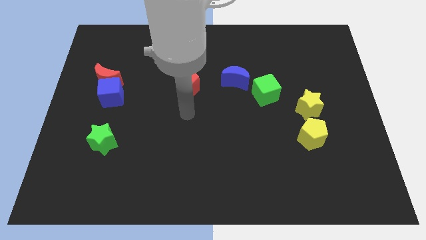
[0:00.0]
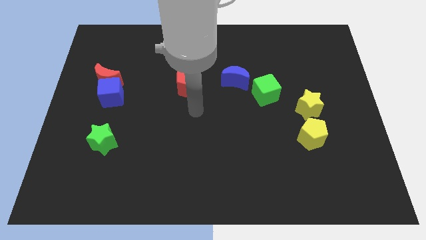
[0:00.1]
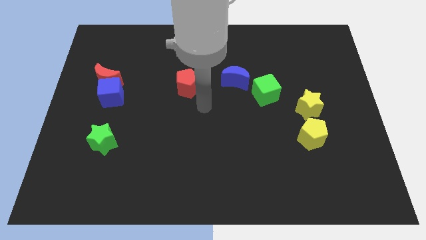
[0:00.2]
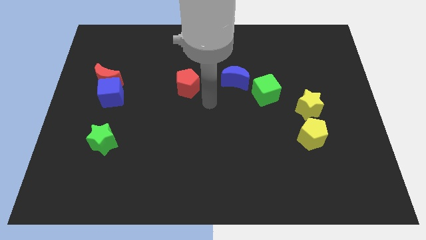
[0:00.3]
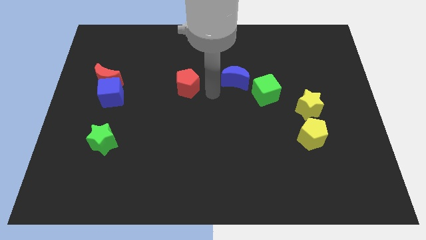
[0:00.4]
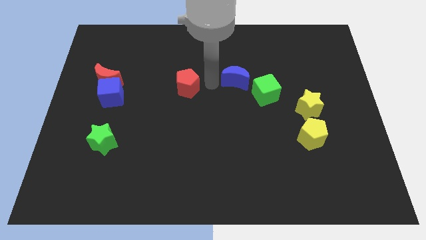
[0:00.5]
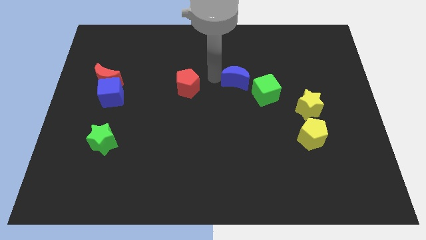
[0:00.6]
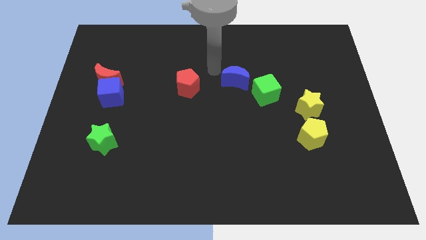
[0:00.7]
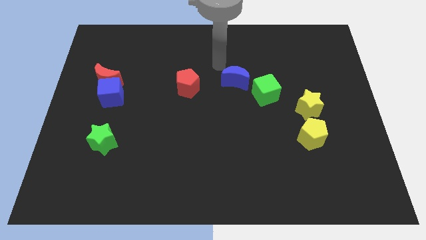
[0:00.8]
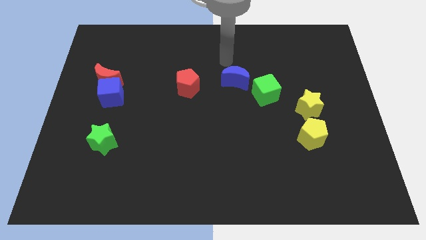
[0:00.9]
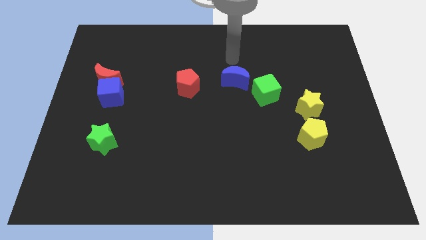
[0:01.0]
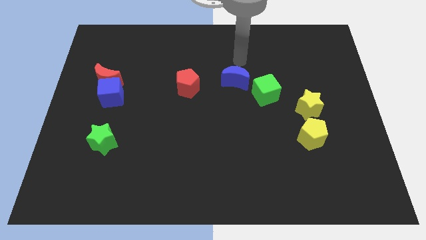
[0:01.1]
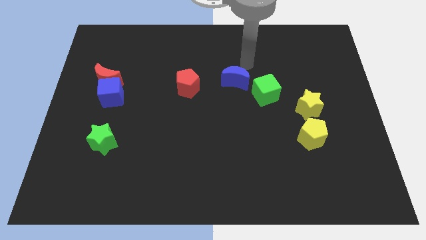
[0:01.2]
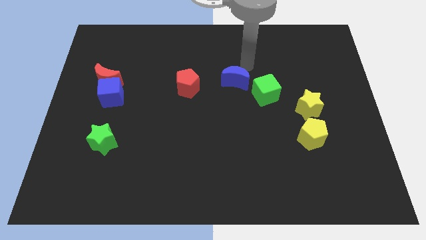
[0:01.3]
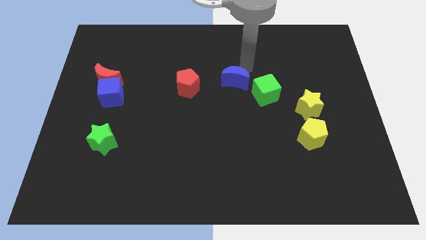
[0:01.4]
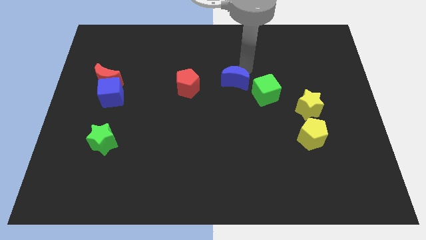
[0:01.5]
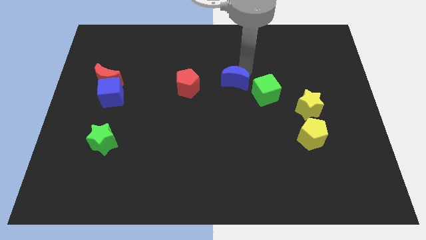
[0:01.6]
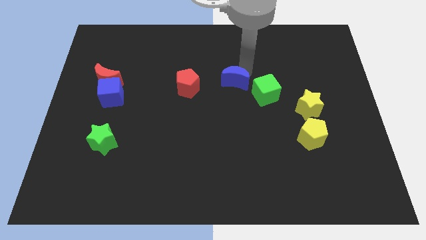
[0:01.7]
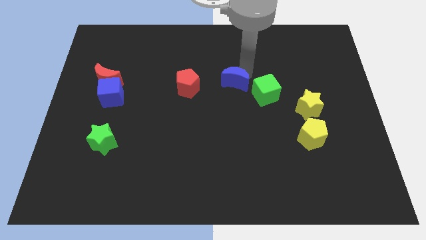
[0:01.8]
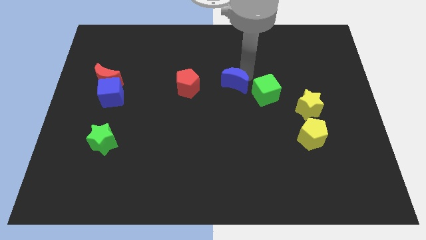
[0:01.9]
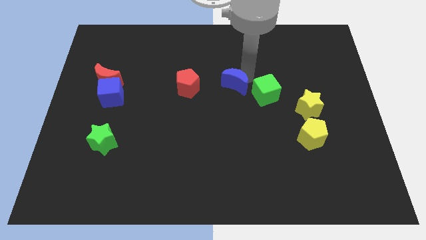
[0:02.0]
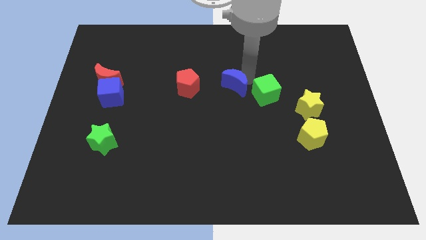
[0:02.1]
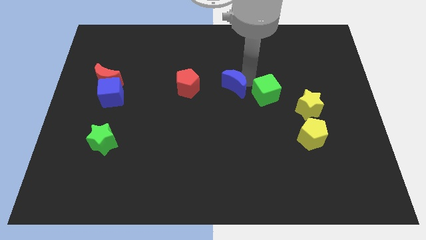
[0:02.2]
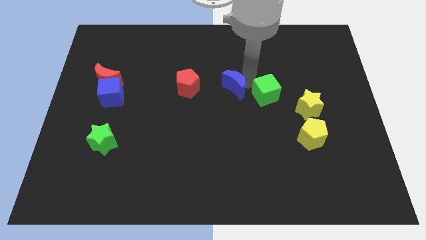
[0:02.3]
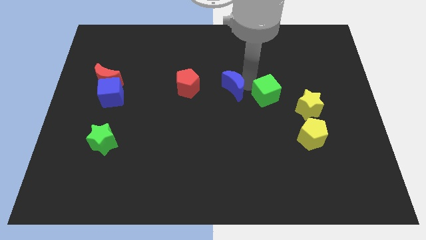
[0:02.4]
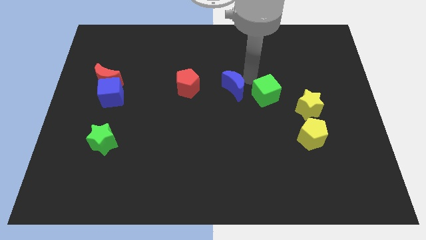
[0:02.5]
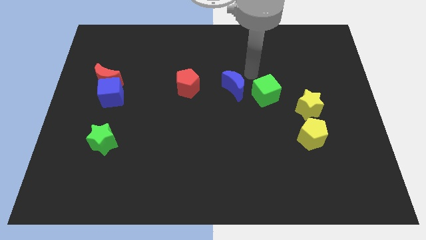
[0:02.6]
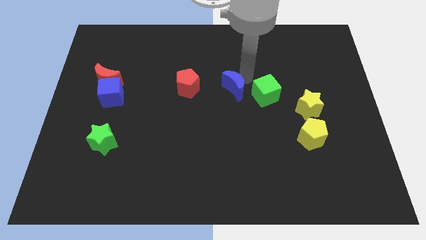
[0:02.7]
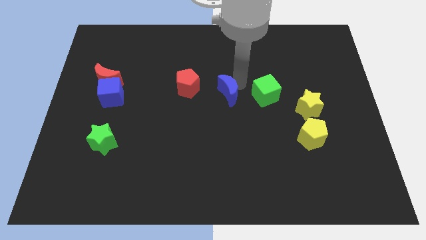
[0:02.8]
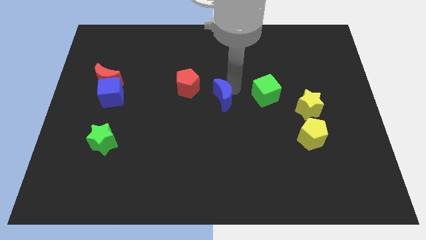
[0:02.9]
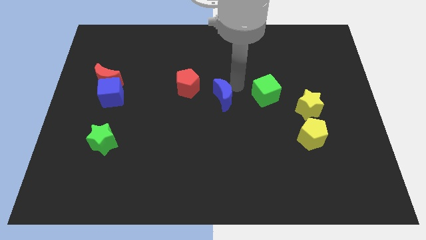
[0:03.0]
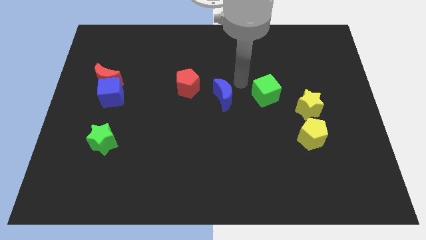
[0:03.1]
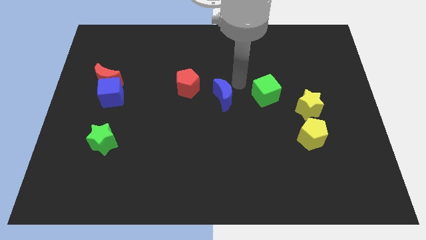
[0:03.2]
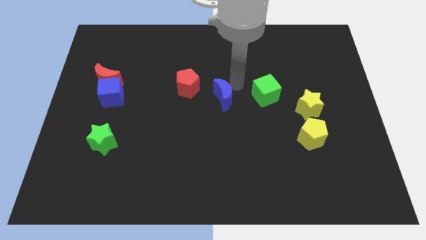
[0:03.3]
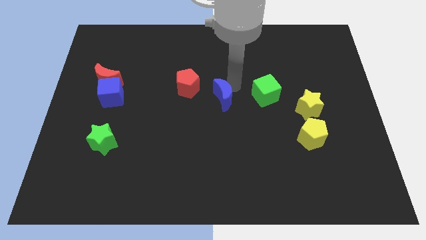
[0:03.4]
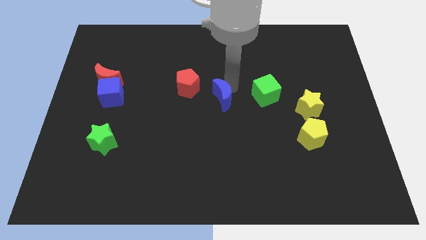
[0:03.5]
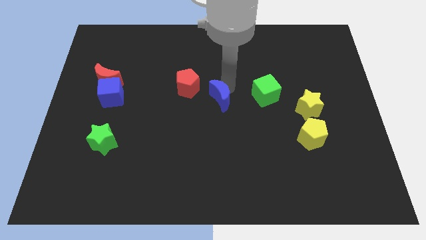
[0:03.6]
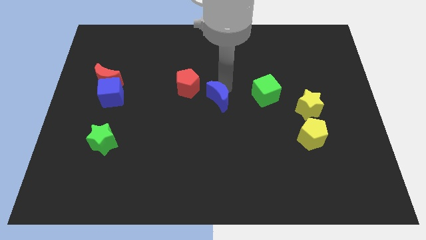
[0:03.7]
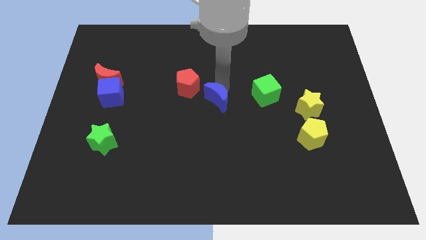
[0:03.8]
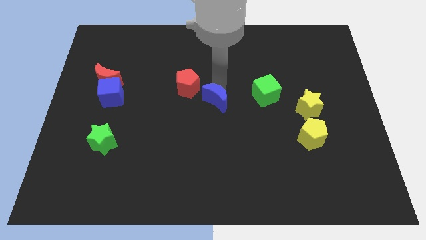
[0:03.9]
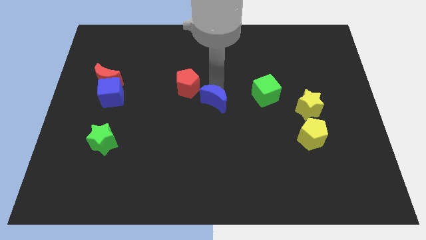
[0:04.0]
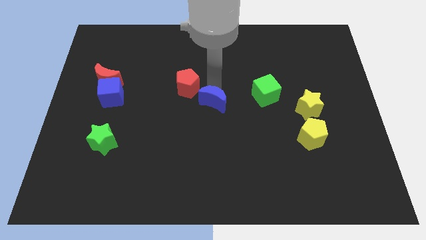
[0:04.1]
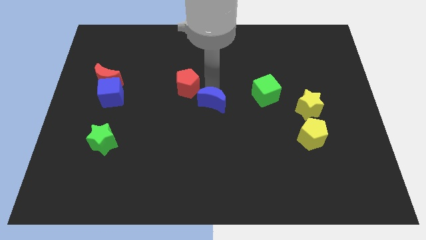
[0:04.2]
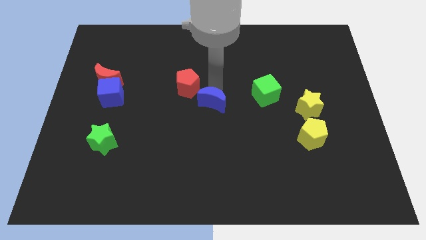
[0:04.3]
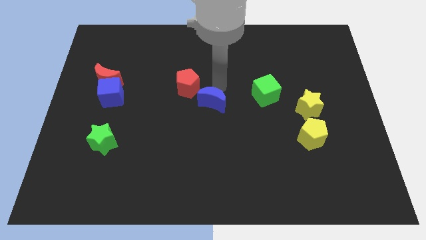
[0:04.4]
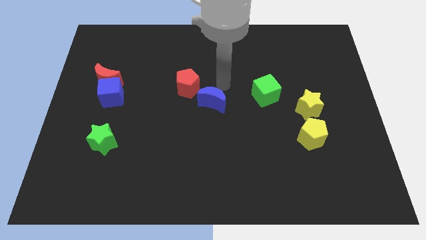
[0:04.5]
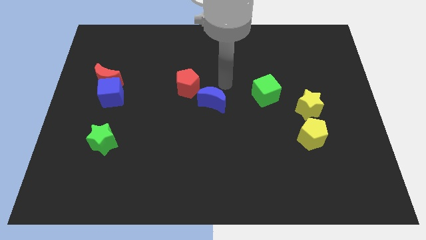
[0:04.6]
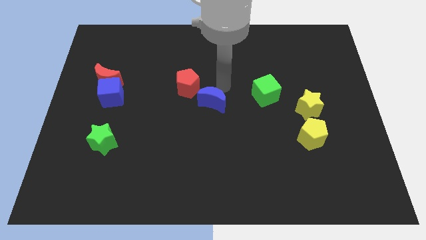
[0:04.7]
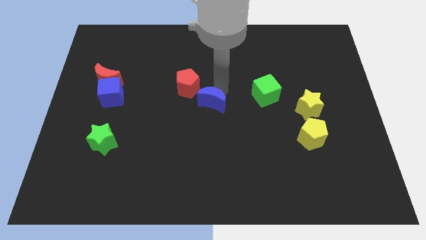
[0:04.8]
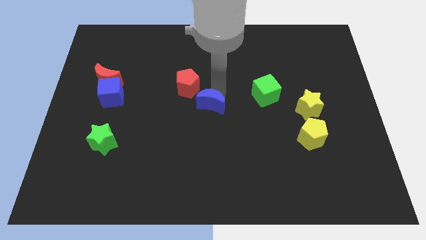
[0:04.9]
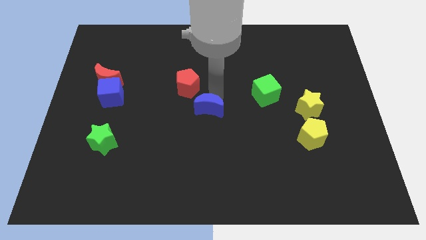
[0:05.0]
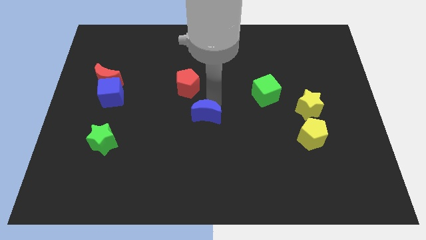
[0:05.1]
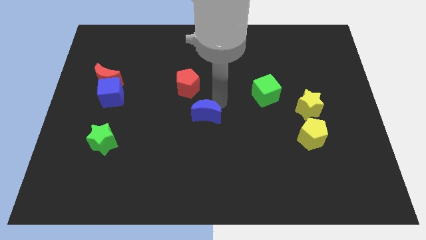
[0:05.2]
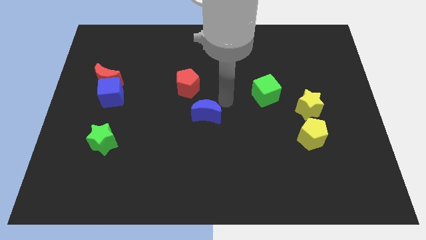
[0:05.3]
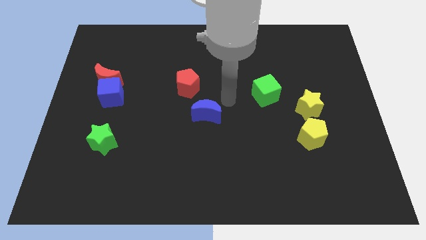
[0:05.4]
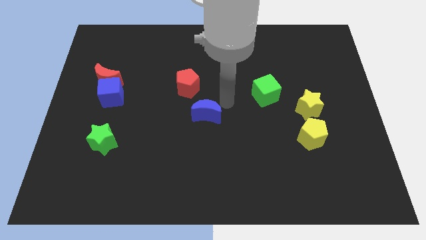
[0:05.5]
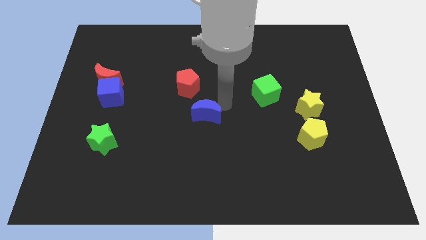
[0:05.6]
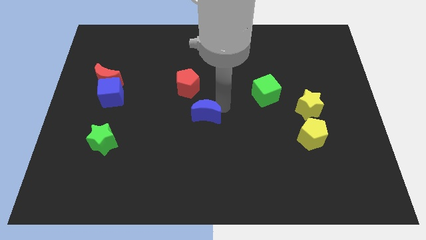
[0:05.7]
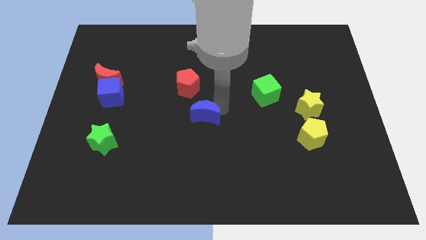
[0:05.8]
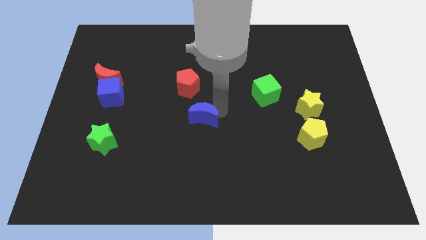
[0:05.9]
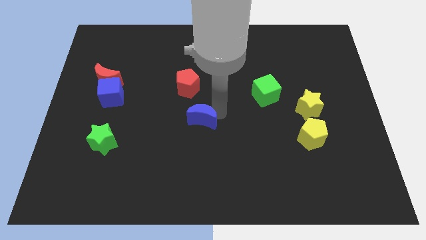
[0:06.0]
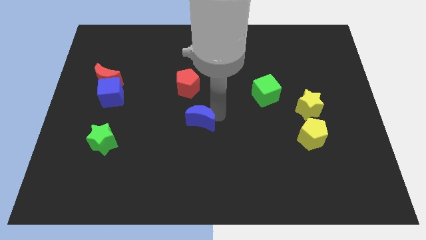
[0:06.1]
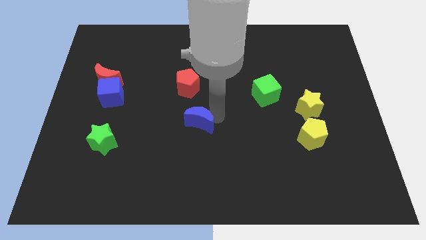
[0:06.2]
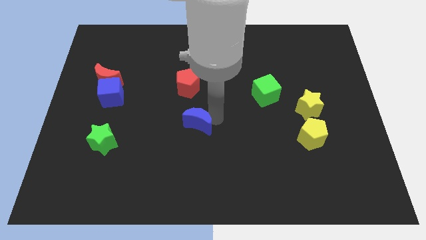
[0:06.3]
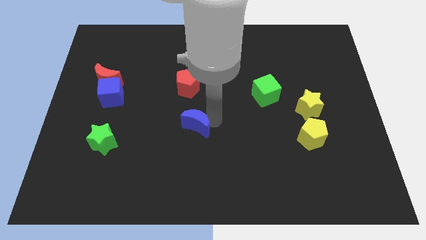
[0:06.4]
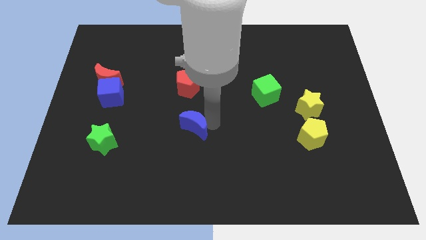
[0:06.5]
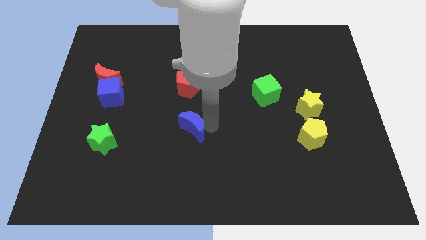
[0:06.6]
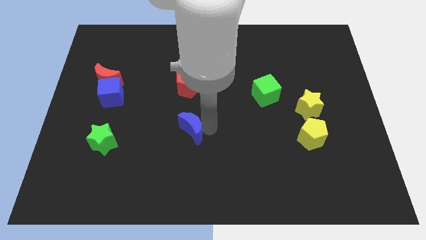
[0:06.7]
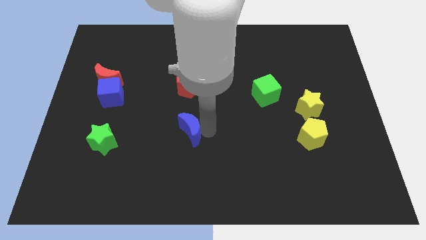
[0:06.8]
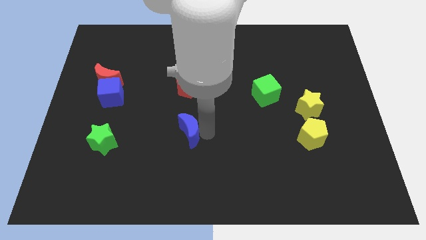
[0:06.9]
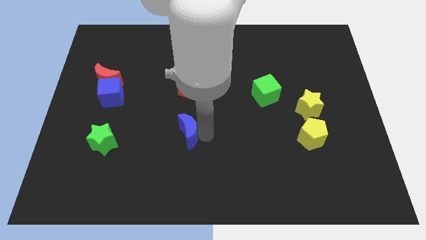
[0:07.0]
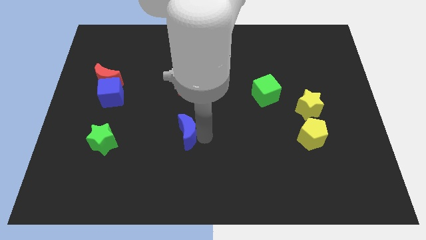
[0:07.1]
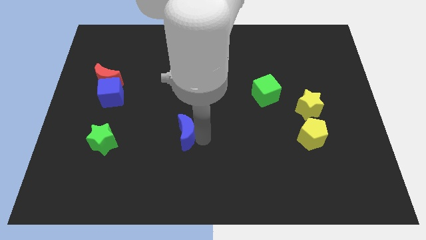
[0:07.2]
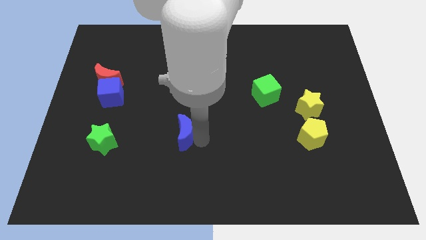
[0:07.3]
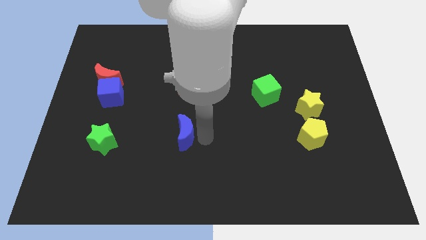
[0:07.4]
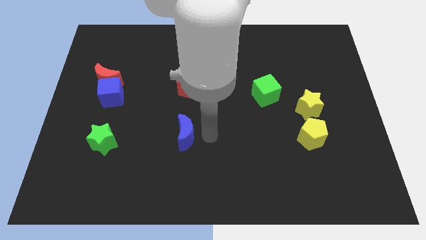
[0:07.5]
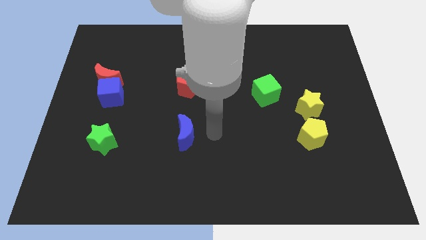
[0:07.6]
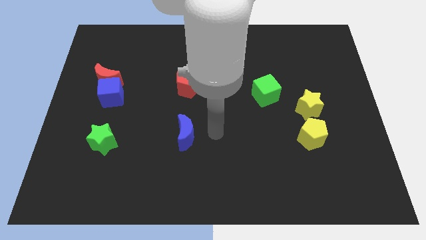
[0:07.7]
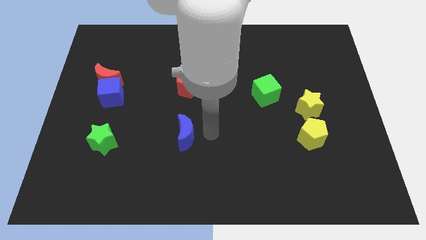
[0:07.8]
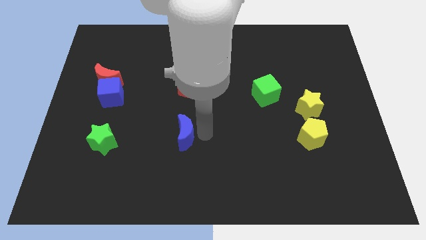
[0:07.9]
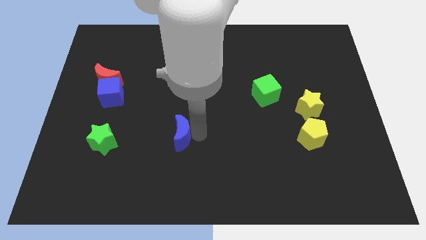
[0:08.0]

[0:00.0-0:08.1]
move the blue moon diagonally downwards and to the left
